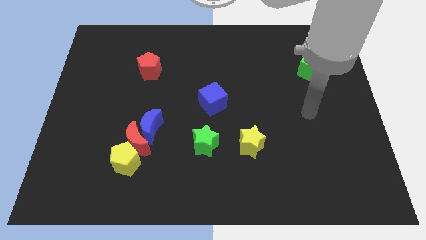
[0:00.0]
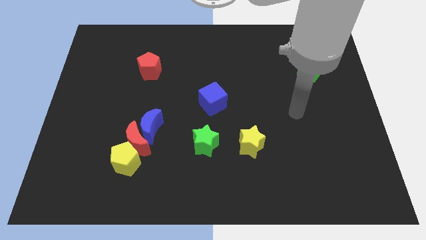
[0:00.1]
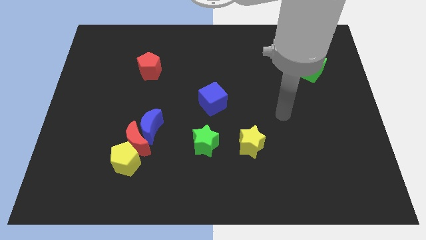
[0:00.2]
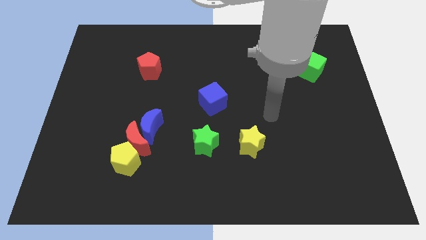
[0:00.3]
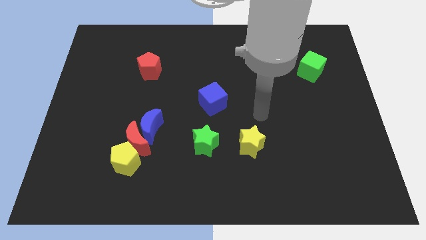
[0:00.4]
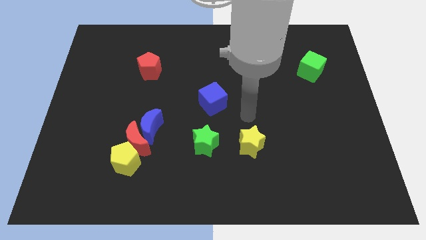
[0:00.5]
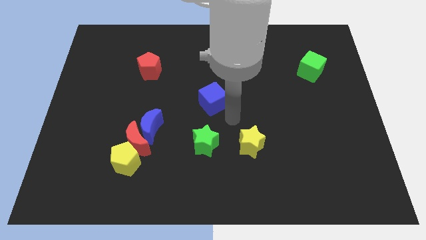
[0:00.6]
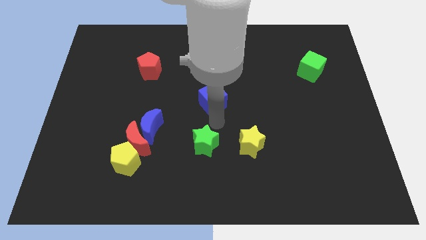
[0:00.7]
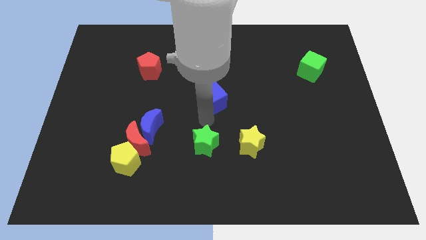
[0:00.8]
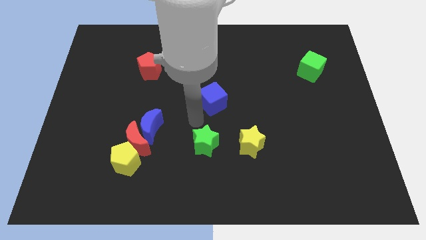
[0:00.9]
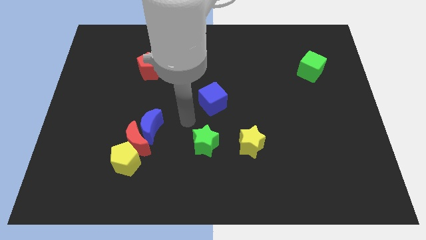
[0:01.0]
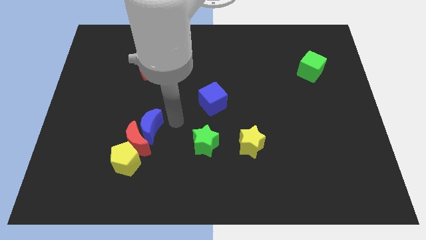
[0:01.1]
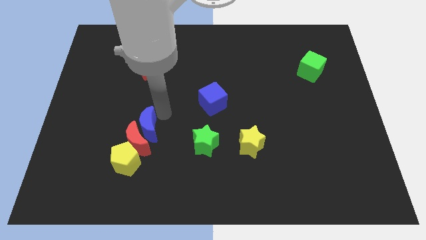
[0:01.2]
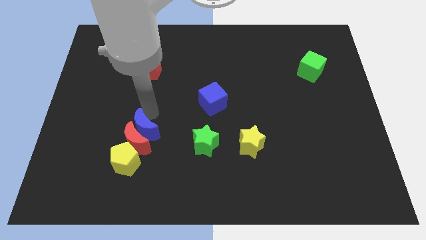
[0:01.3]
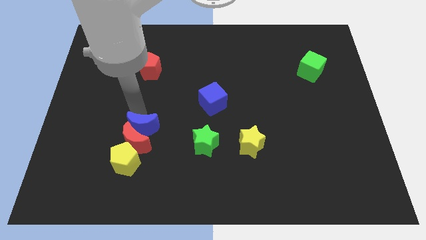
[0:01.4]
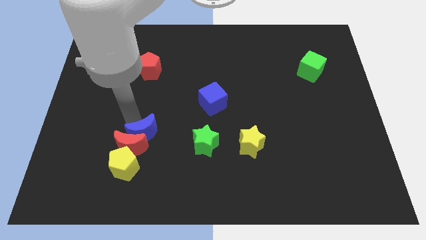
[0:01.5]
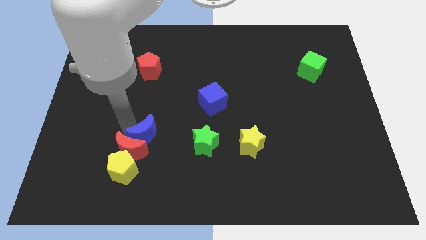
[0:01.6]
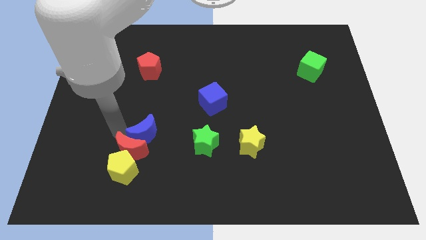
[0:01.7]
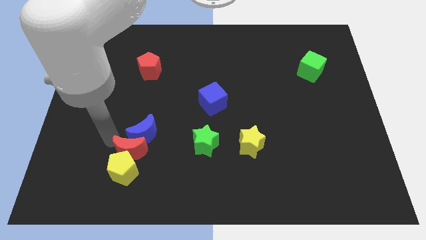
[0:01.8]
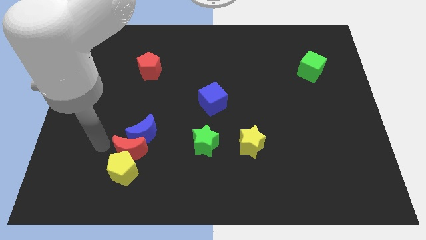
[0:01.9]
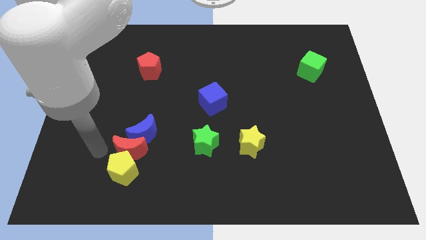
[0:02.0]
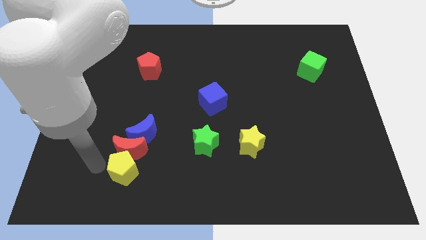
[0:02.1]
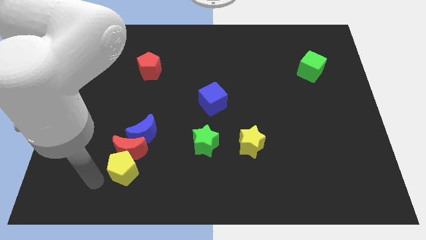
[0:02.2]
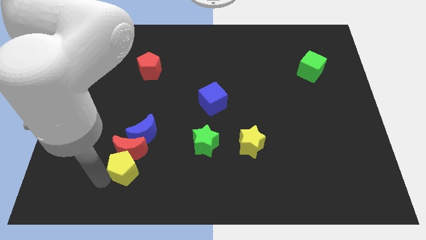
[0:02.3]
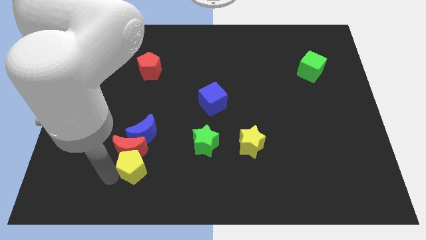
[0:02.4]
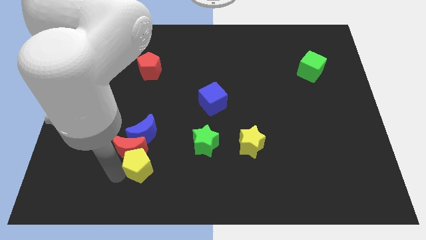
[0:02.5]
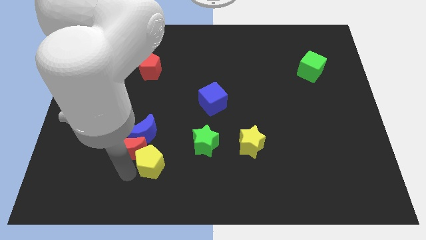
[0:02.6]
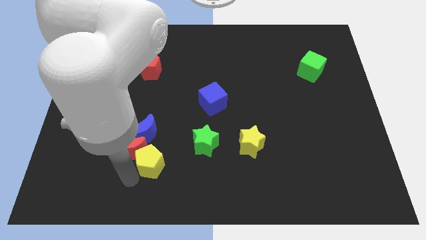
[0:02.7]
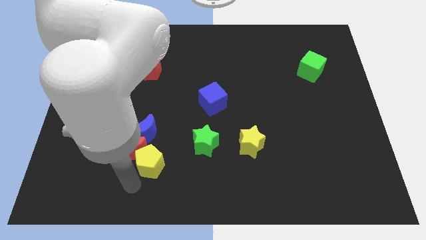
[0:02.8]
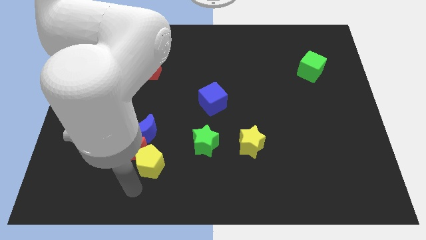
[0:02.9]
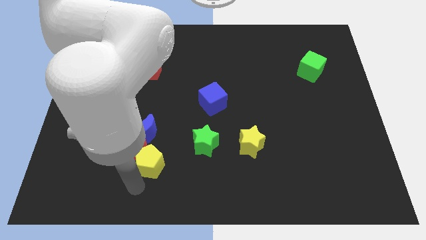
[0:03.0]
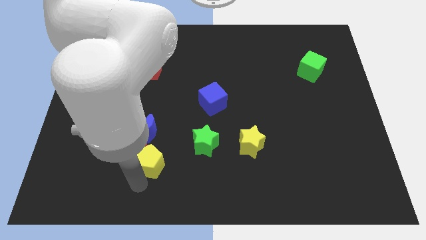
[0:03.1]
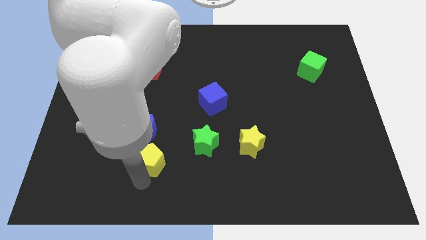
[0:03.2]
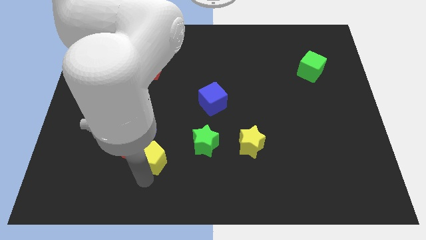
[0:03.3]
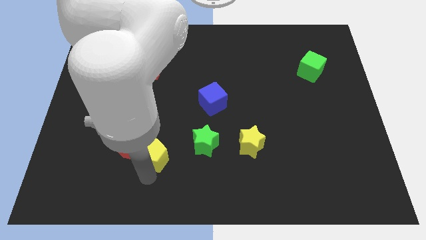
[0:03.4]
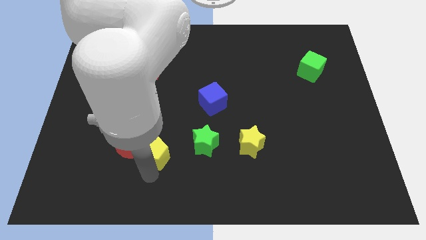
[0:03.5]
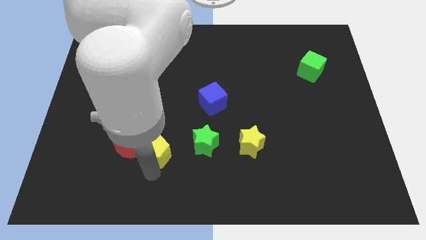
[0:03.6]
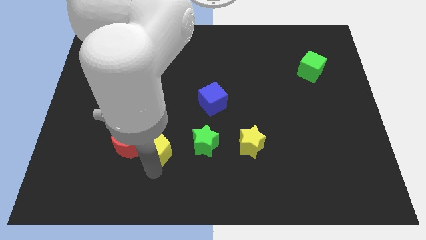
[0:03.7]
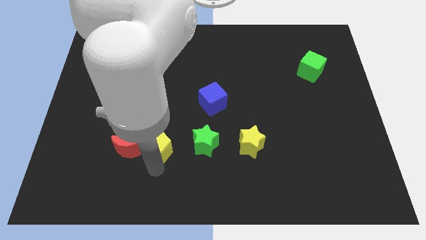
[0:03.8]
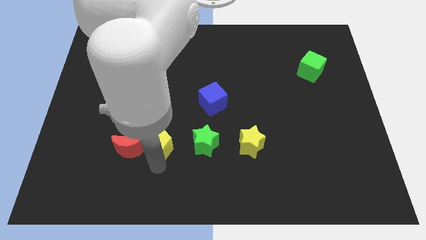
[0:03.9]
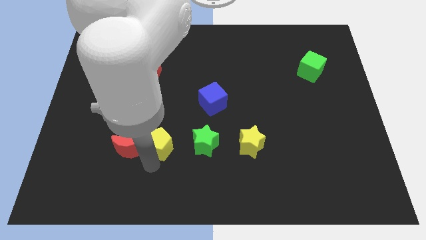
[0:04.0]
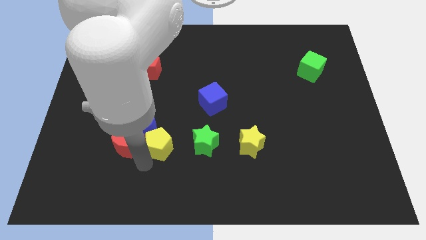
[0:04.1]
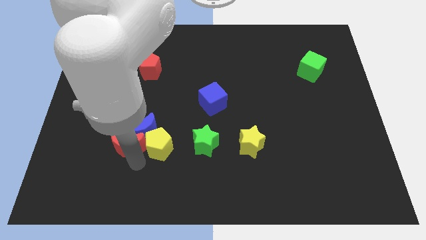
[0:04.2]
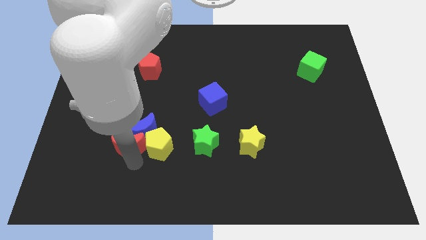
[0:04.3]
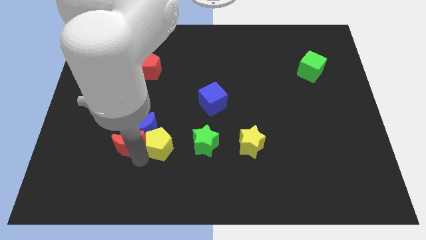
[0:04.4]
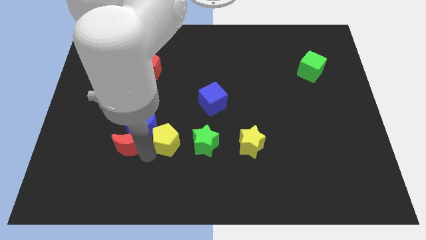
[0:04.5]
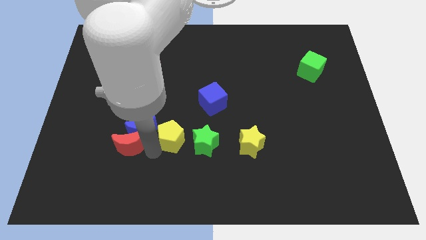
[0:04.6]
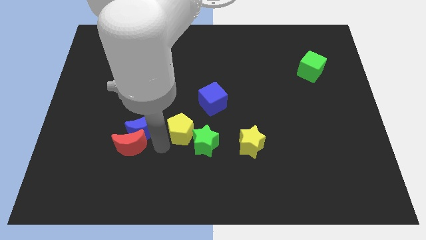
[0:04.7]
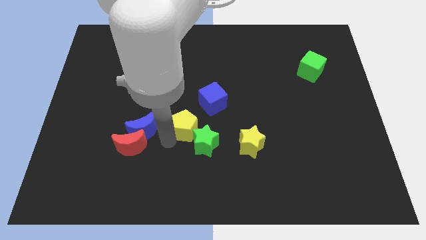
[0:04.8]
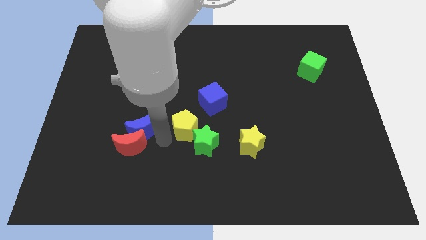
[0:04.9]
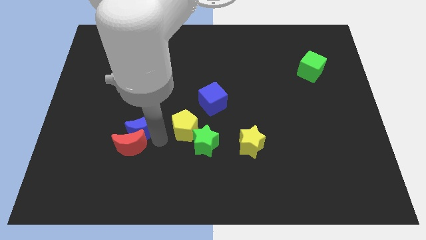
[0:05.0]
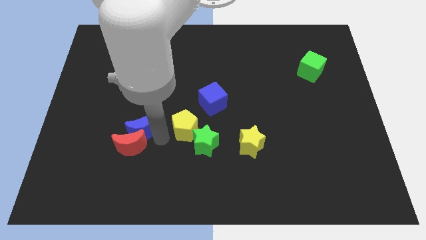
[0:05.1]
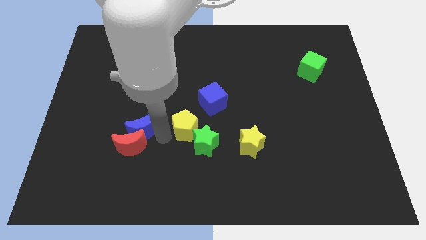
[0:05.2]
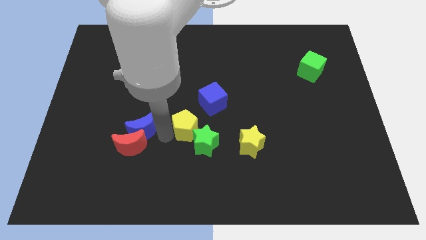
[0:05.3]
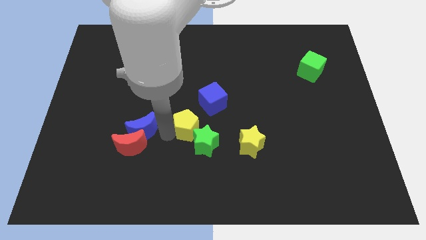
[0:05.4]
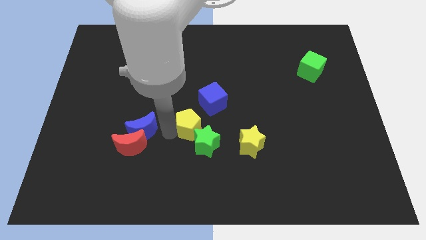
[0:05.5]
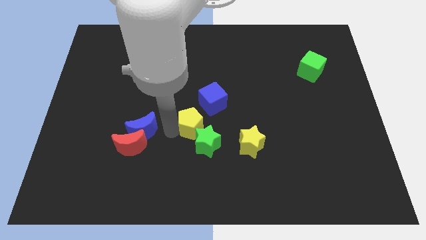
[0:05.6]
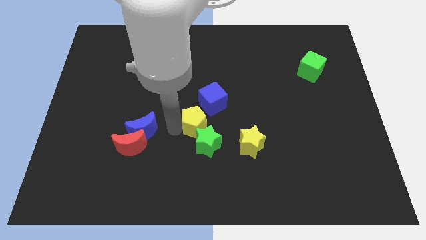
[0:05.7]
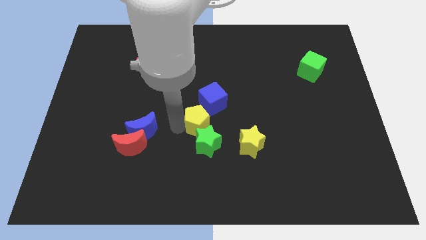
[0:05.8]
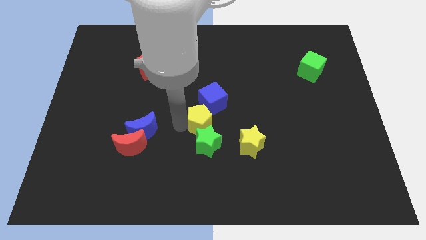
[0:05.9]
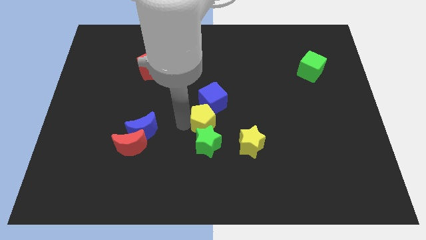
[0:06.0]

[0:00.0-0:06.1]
slide the yellow pentagon diagonally up and to the left of the yellow star

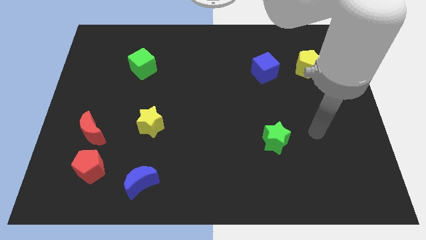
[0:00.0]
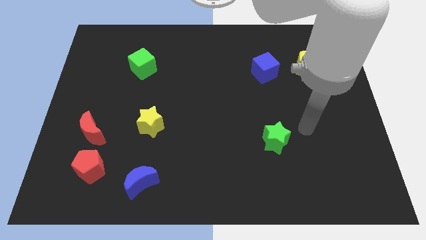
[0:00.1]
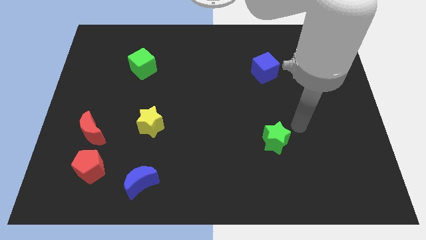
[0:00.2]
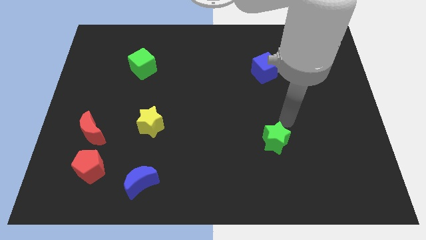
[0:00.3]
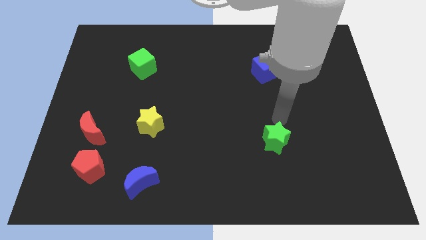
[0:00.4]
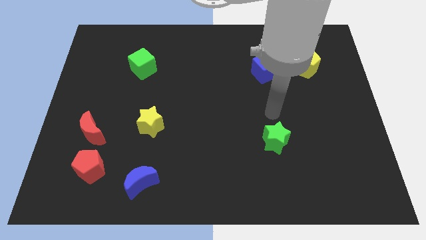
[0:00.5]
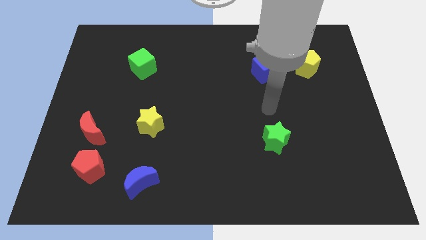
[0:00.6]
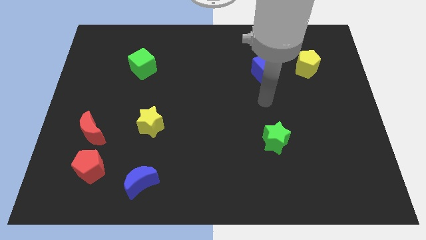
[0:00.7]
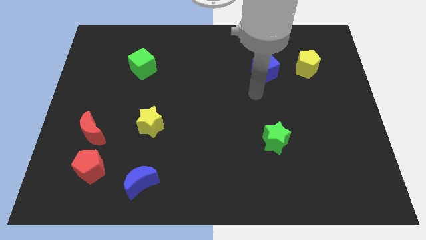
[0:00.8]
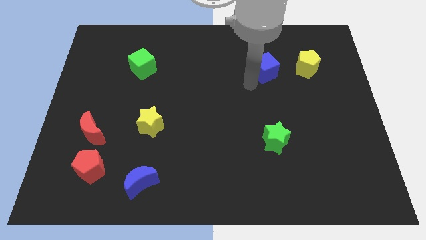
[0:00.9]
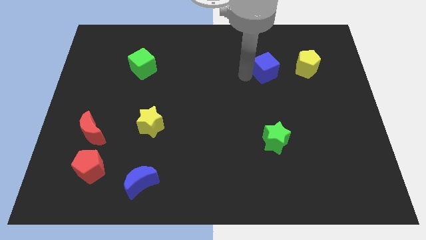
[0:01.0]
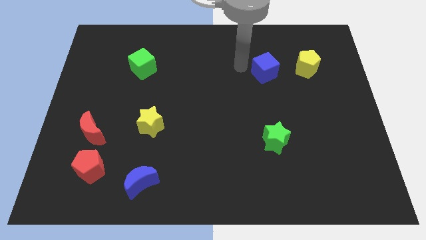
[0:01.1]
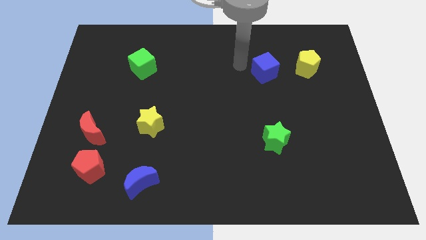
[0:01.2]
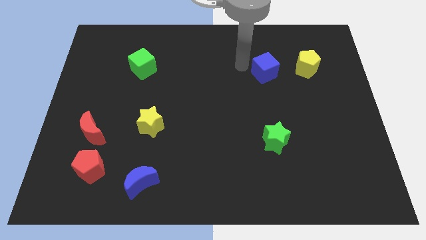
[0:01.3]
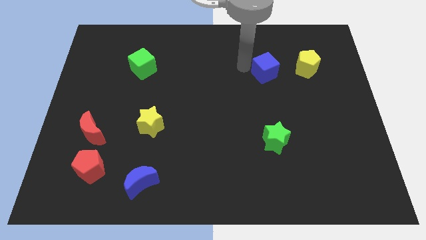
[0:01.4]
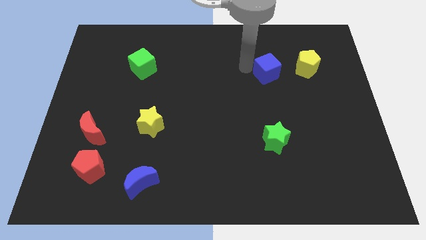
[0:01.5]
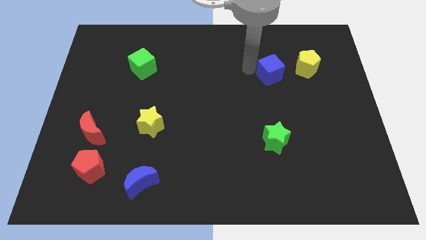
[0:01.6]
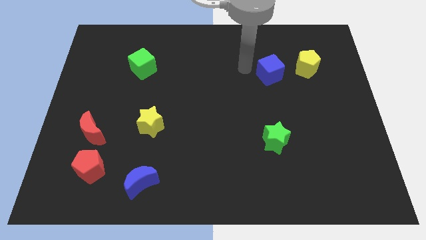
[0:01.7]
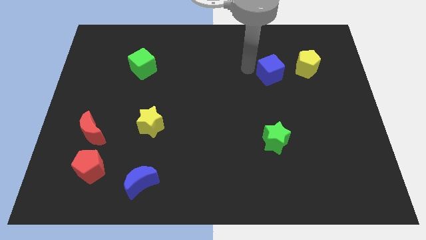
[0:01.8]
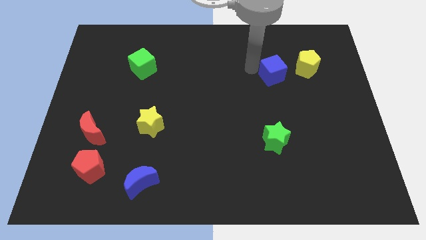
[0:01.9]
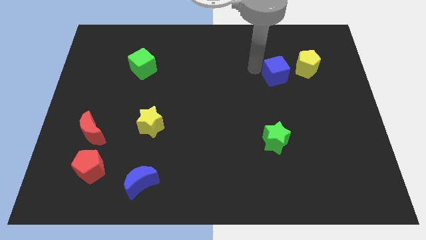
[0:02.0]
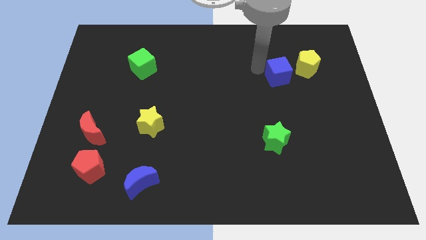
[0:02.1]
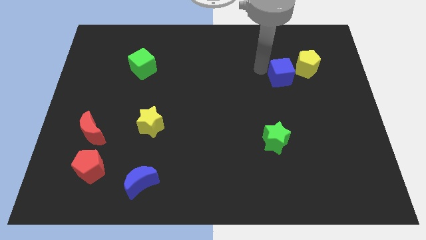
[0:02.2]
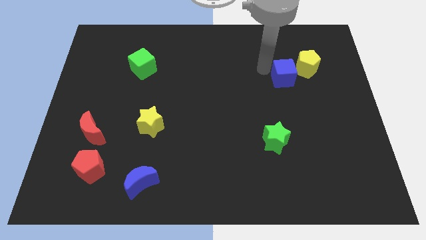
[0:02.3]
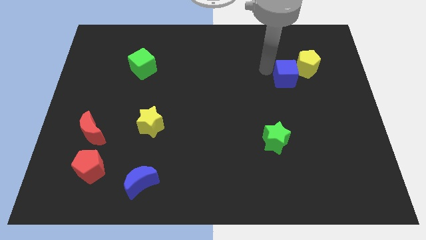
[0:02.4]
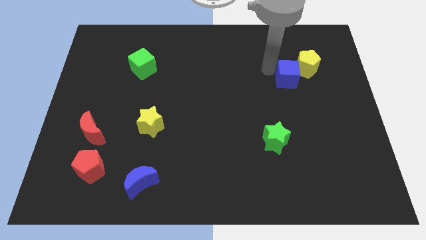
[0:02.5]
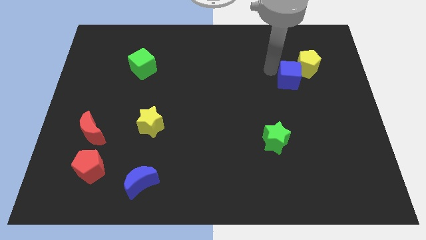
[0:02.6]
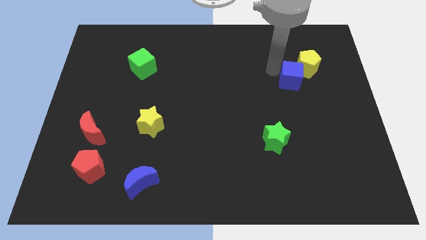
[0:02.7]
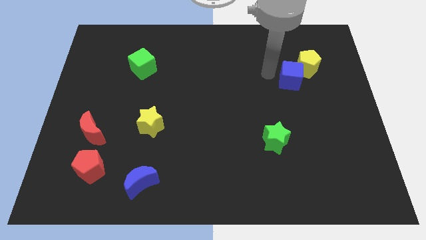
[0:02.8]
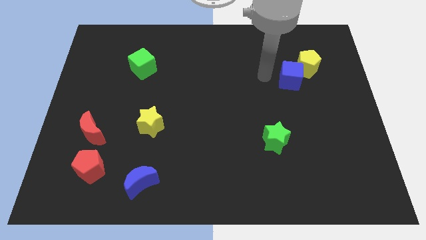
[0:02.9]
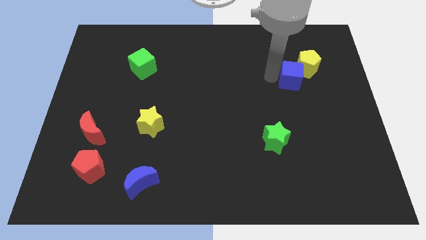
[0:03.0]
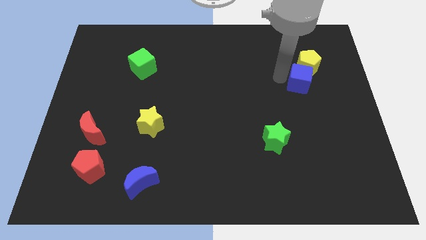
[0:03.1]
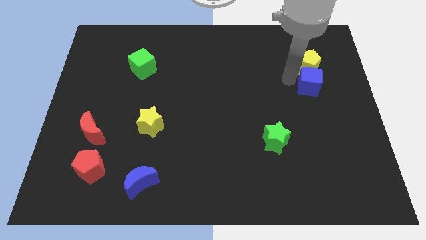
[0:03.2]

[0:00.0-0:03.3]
put the blue cube to the bottom right side of the yellow pentagon
